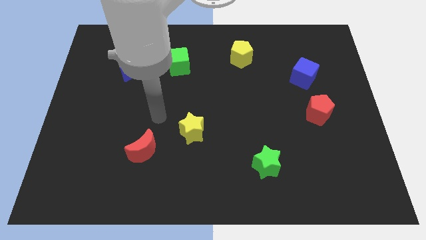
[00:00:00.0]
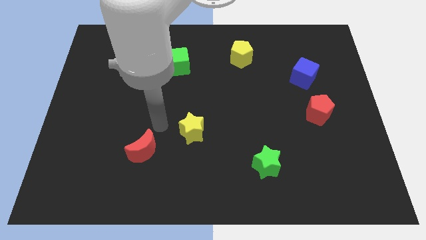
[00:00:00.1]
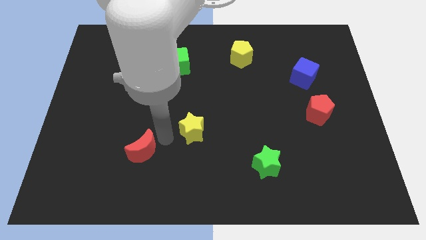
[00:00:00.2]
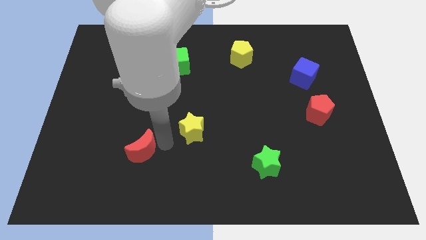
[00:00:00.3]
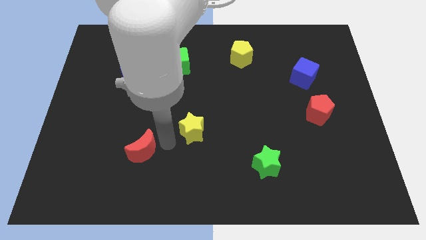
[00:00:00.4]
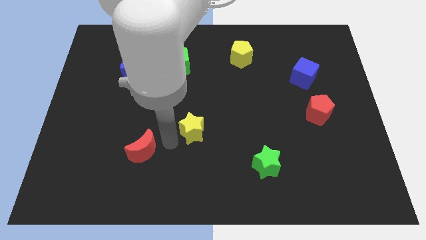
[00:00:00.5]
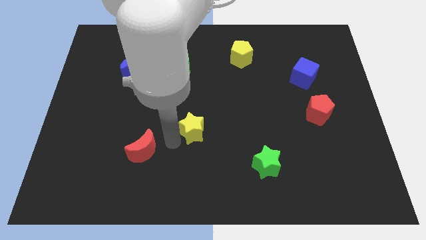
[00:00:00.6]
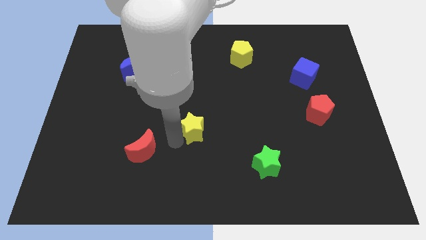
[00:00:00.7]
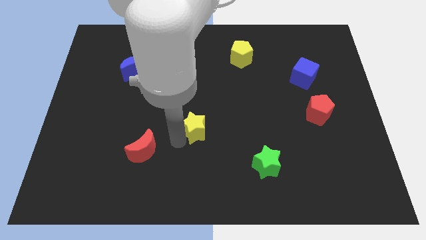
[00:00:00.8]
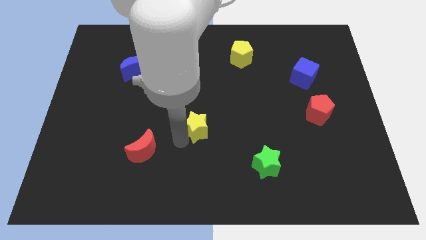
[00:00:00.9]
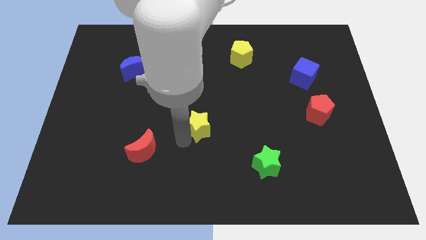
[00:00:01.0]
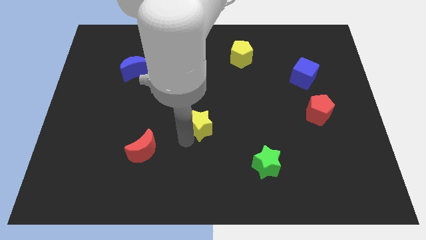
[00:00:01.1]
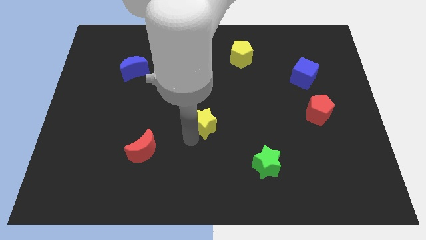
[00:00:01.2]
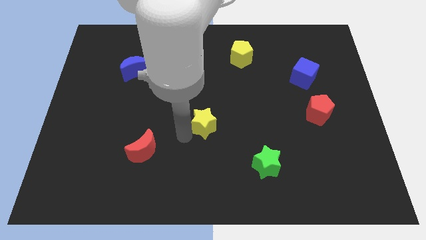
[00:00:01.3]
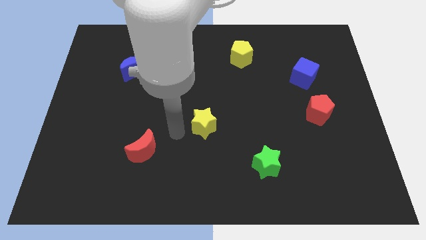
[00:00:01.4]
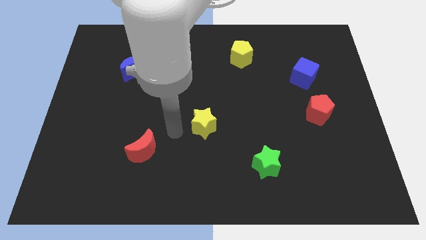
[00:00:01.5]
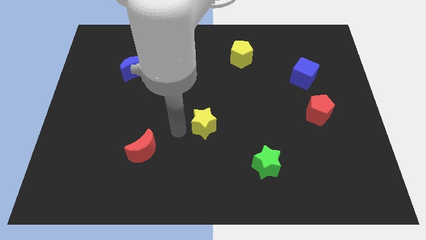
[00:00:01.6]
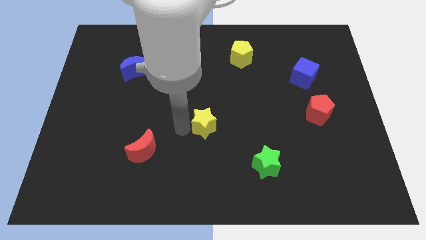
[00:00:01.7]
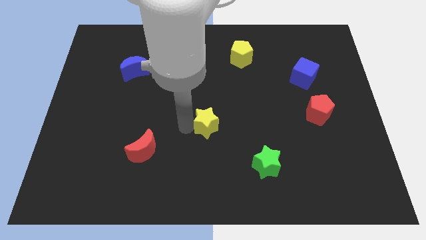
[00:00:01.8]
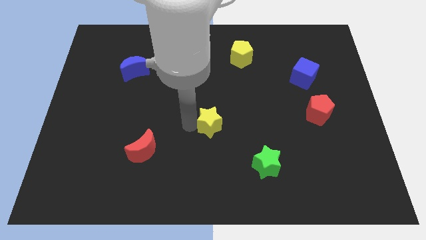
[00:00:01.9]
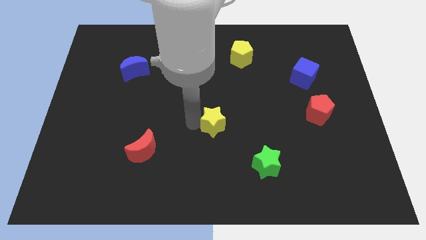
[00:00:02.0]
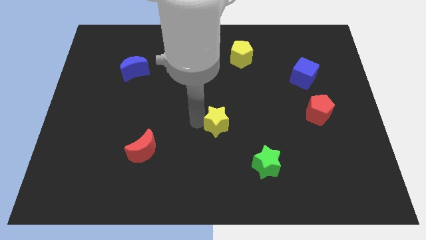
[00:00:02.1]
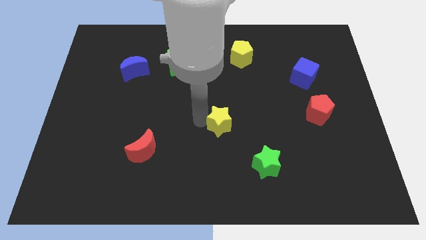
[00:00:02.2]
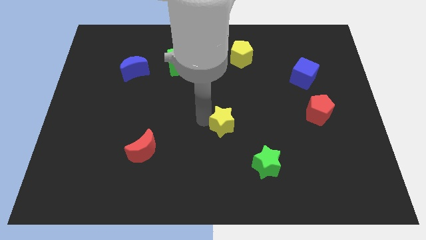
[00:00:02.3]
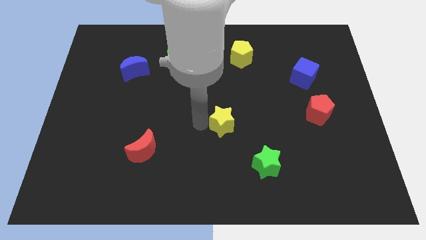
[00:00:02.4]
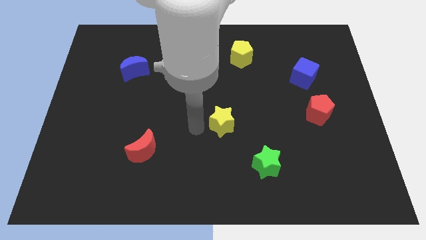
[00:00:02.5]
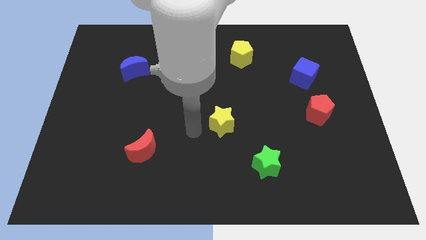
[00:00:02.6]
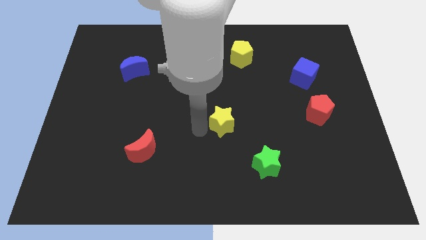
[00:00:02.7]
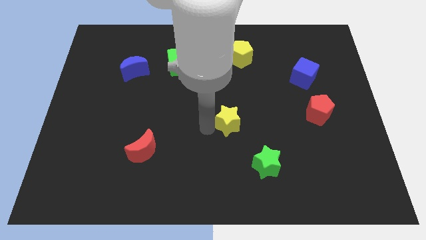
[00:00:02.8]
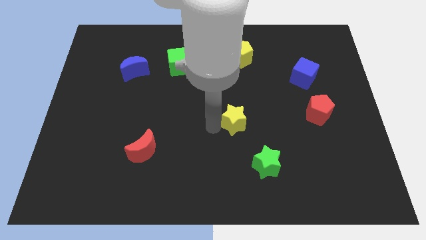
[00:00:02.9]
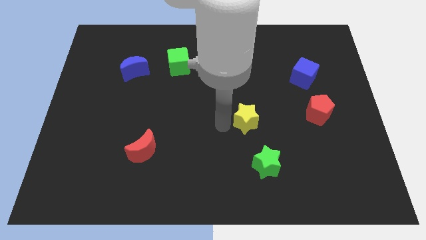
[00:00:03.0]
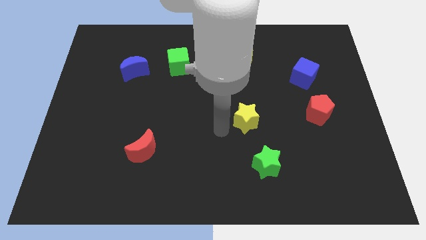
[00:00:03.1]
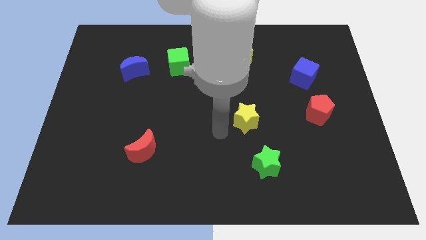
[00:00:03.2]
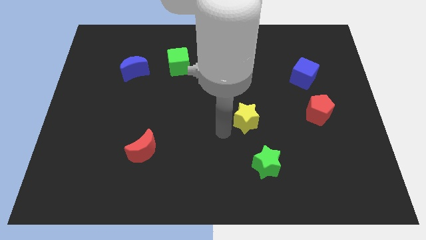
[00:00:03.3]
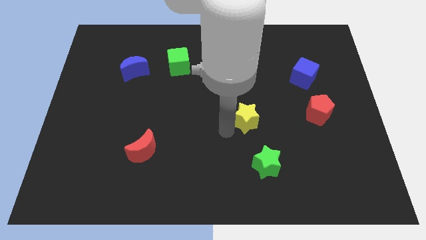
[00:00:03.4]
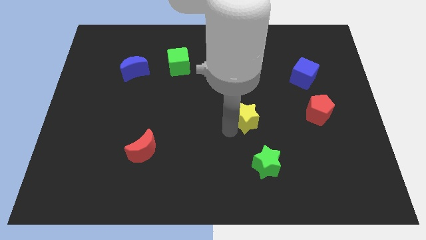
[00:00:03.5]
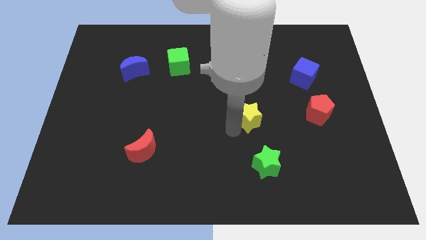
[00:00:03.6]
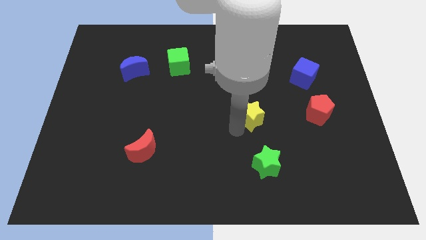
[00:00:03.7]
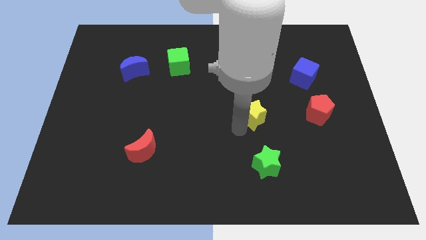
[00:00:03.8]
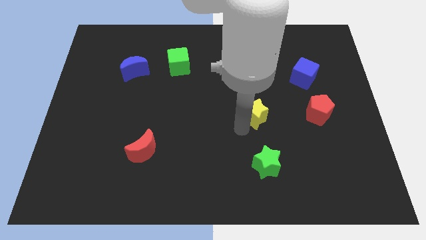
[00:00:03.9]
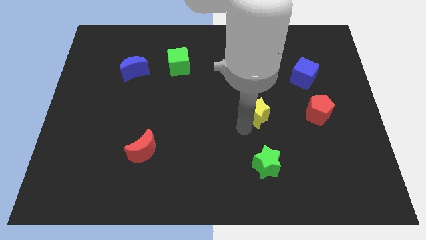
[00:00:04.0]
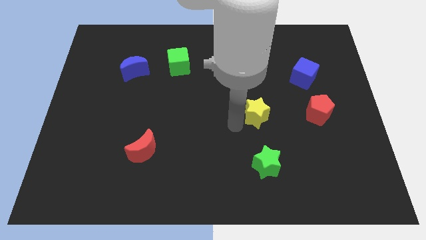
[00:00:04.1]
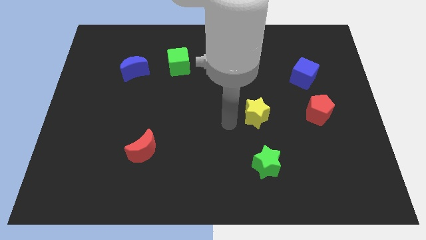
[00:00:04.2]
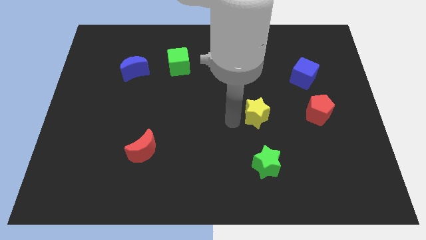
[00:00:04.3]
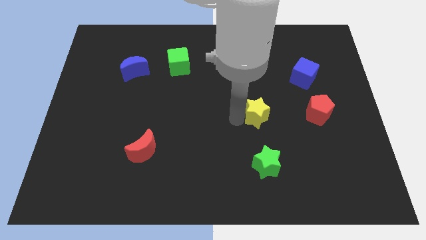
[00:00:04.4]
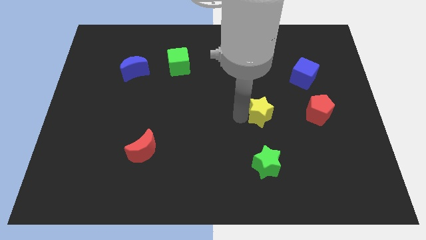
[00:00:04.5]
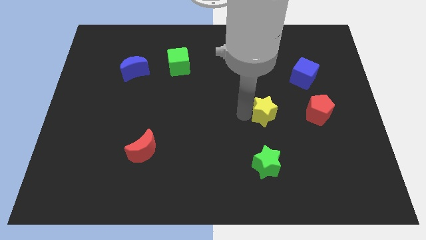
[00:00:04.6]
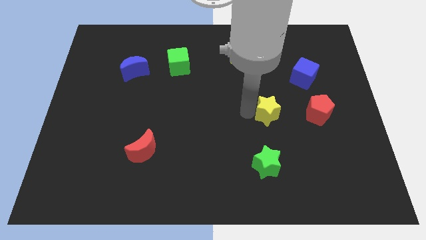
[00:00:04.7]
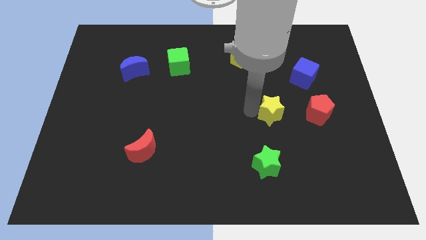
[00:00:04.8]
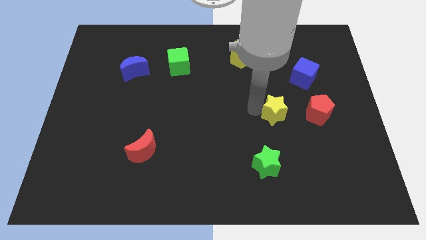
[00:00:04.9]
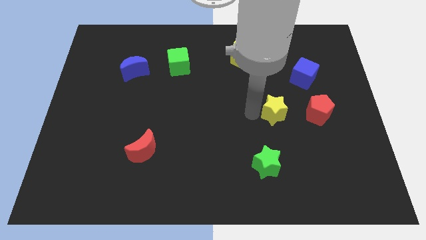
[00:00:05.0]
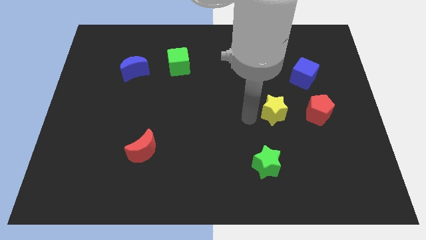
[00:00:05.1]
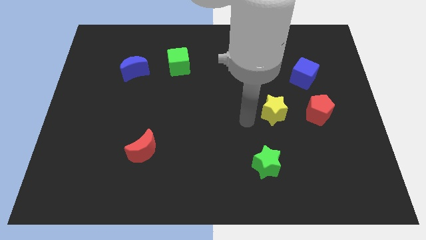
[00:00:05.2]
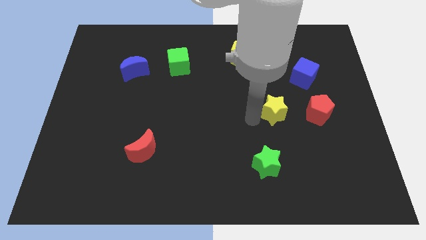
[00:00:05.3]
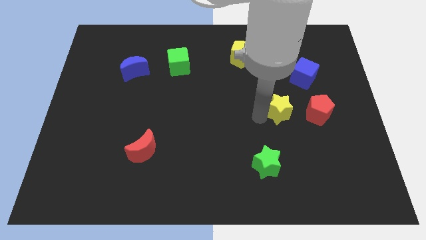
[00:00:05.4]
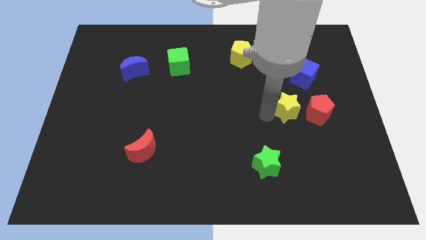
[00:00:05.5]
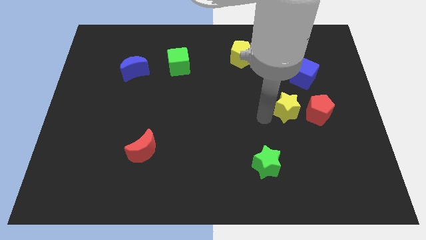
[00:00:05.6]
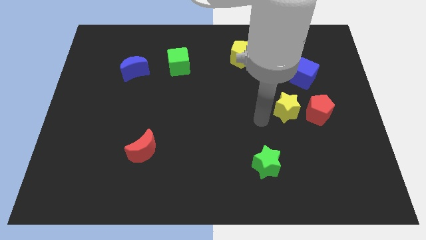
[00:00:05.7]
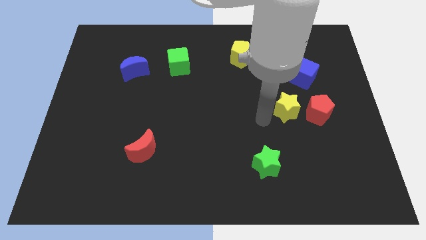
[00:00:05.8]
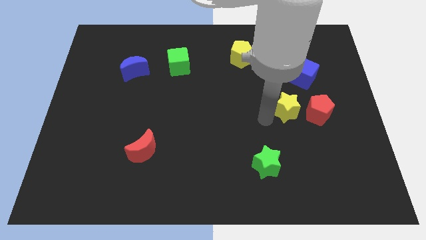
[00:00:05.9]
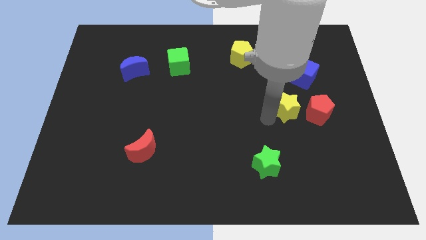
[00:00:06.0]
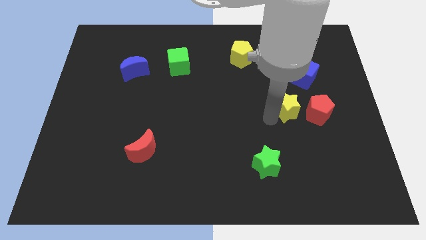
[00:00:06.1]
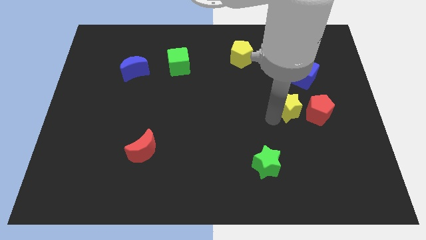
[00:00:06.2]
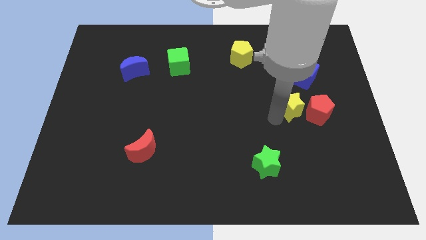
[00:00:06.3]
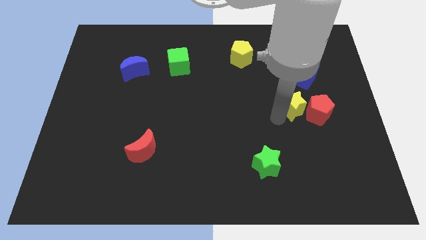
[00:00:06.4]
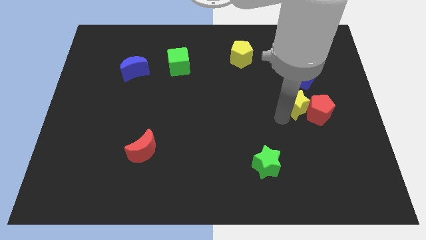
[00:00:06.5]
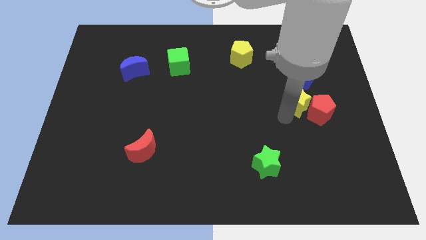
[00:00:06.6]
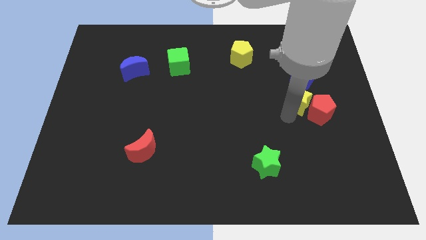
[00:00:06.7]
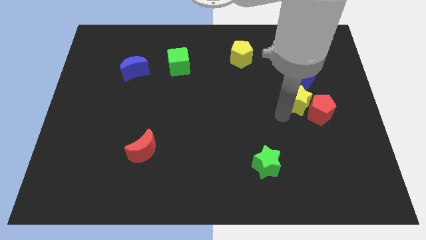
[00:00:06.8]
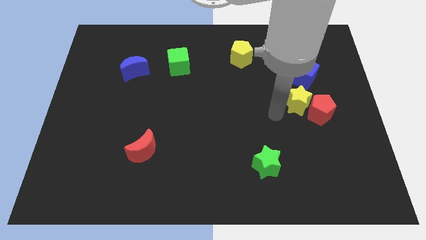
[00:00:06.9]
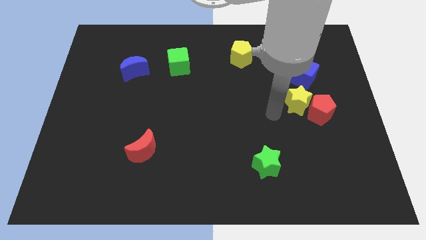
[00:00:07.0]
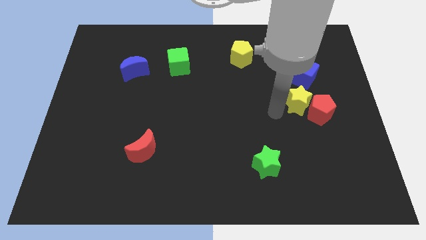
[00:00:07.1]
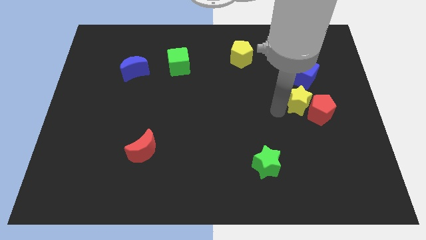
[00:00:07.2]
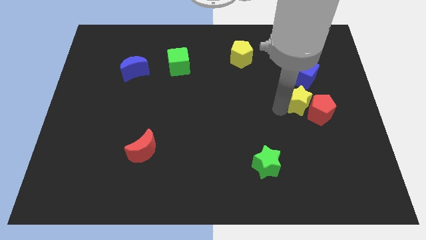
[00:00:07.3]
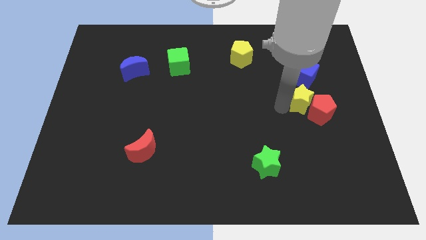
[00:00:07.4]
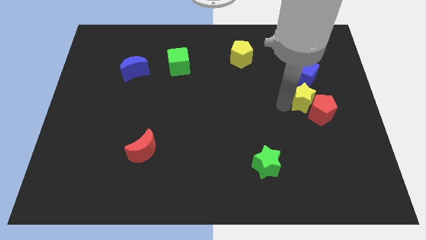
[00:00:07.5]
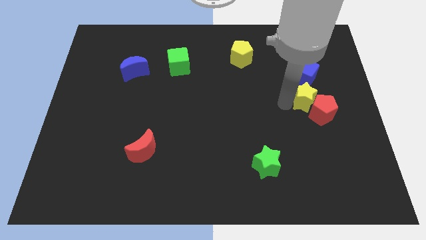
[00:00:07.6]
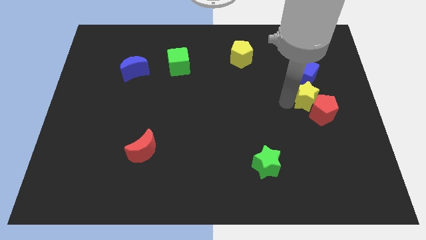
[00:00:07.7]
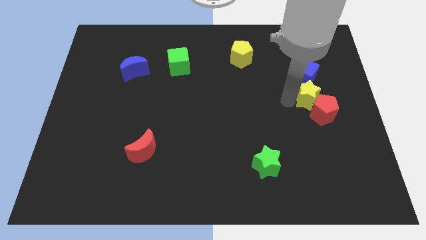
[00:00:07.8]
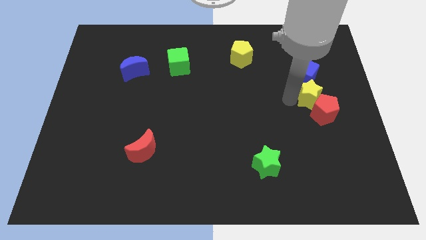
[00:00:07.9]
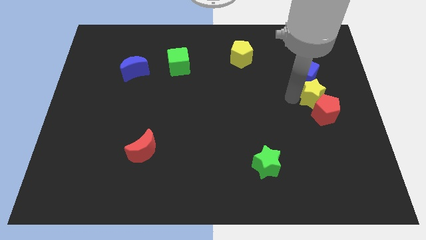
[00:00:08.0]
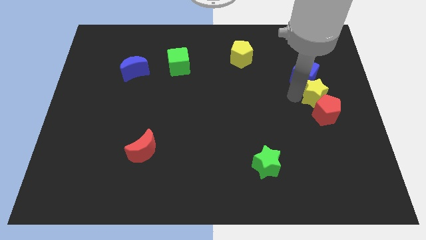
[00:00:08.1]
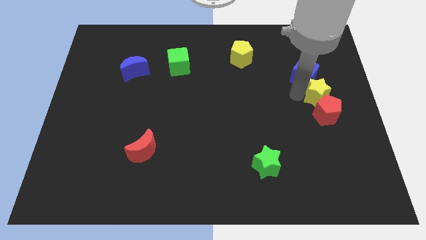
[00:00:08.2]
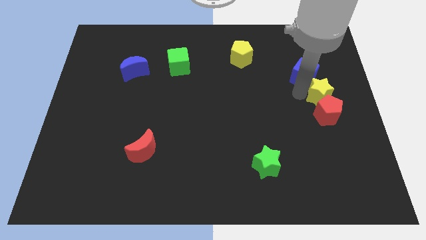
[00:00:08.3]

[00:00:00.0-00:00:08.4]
slide the yellow star to the right side
